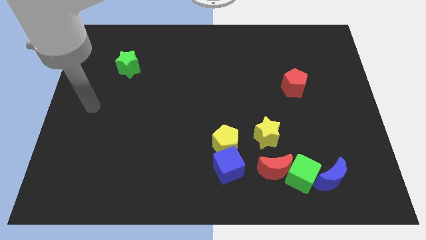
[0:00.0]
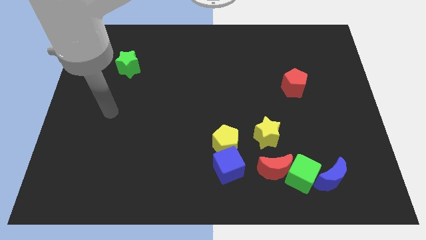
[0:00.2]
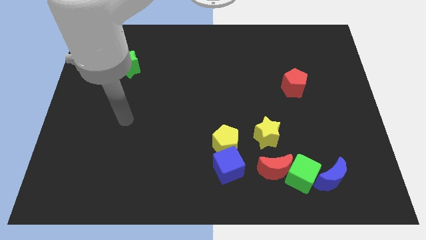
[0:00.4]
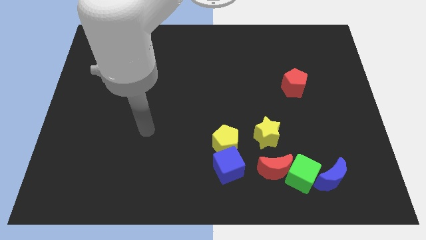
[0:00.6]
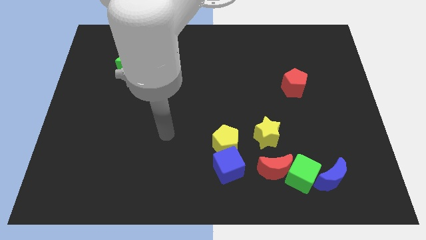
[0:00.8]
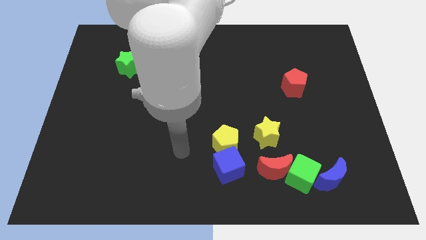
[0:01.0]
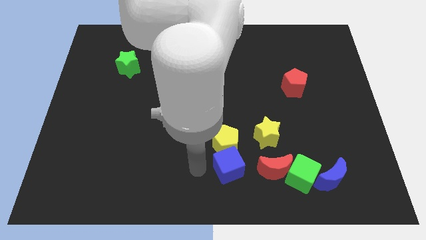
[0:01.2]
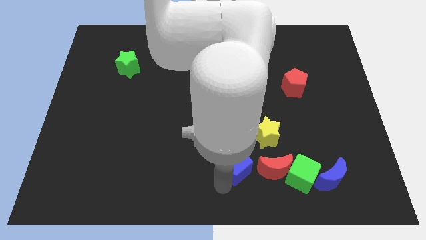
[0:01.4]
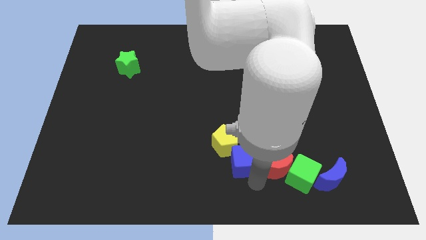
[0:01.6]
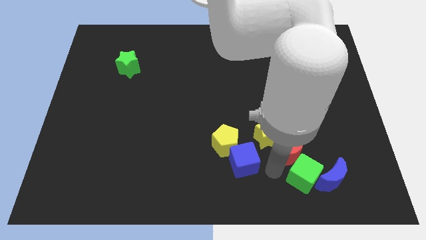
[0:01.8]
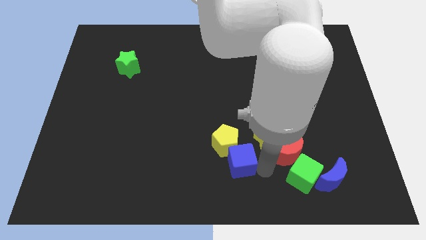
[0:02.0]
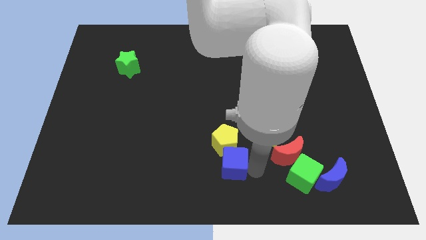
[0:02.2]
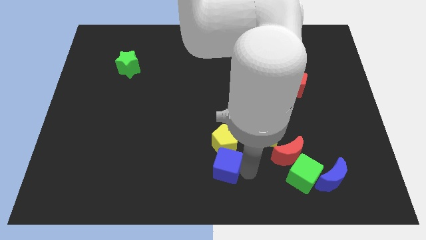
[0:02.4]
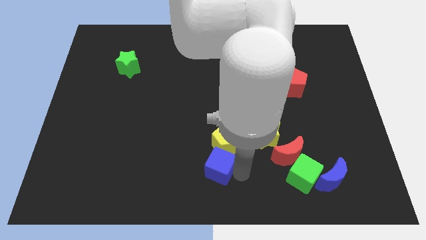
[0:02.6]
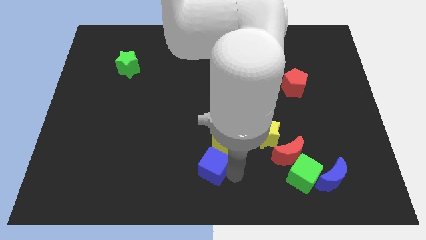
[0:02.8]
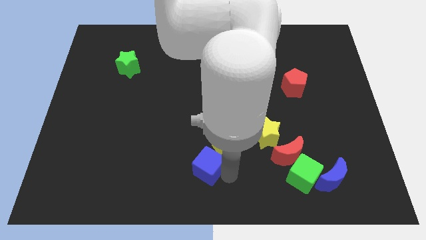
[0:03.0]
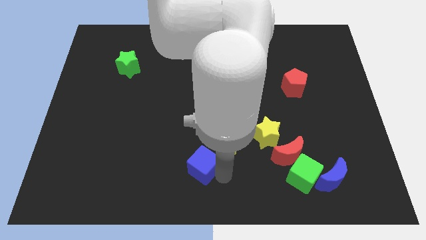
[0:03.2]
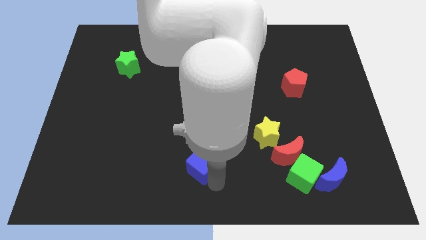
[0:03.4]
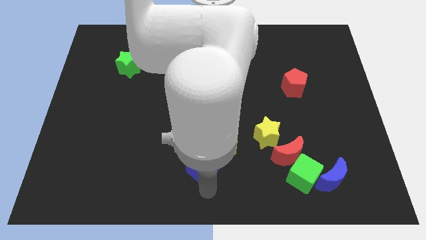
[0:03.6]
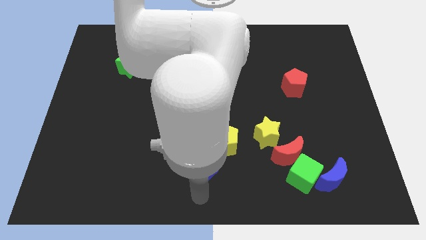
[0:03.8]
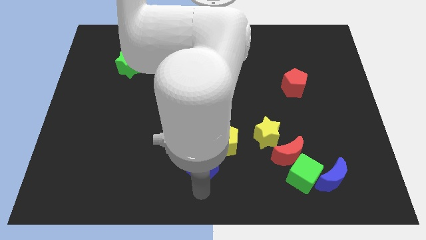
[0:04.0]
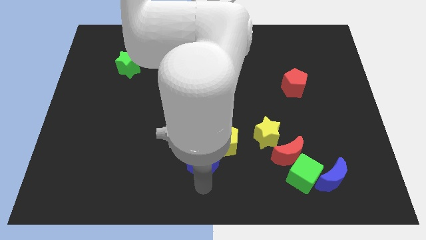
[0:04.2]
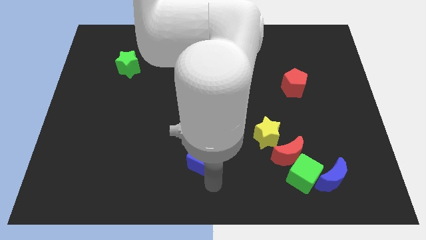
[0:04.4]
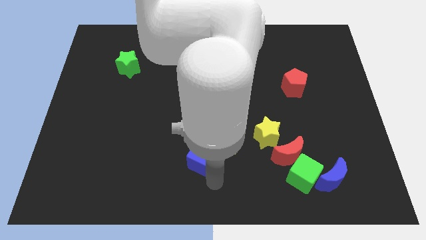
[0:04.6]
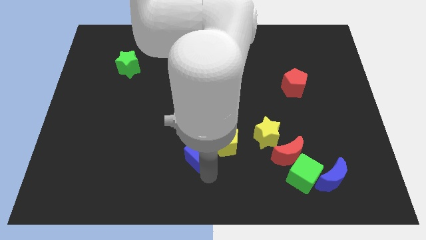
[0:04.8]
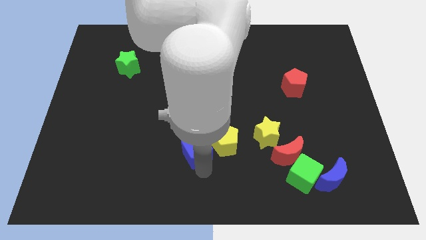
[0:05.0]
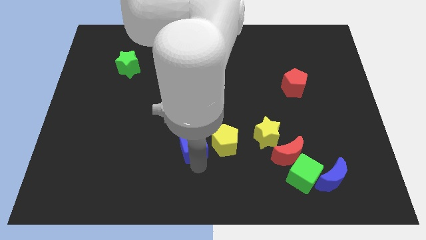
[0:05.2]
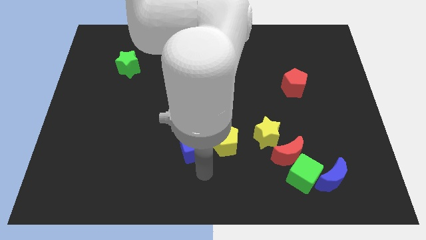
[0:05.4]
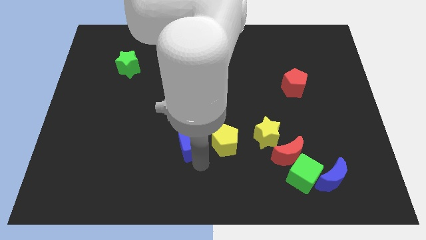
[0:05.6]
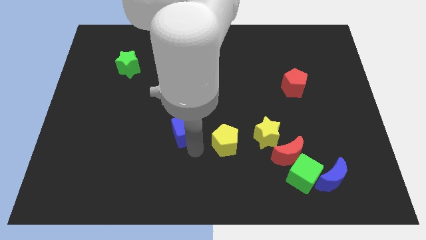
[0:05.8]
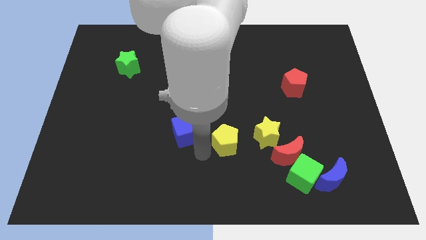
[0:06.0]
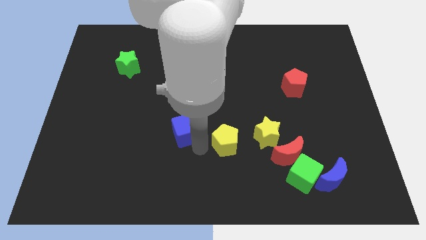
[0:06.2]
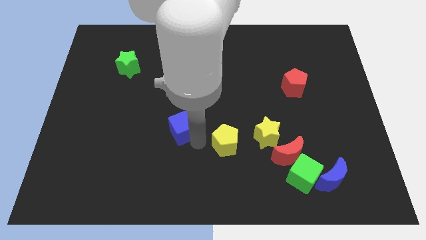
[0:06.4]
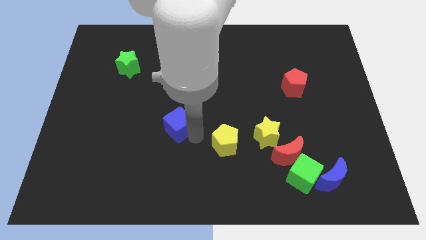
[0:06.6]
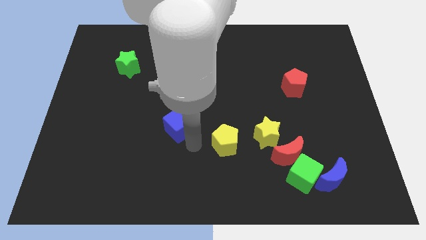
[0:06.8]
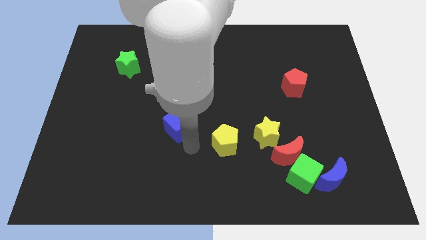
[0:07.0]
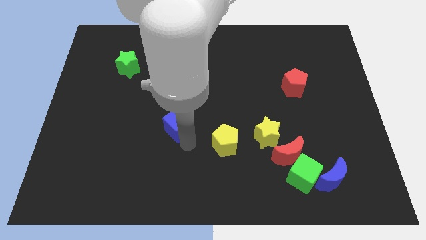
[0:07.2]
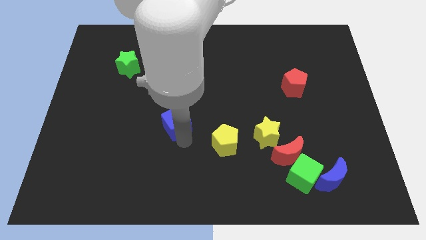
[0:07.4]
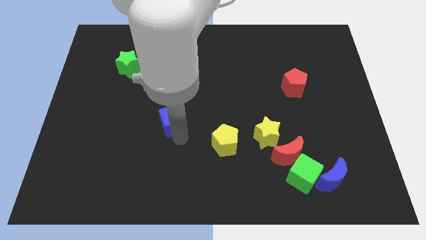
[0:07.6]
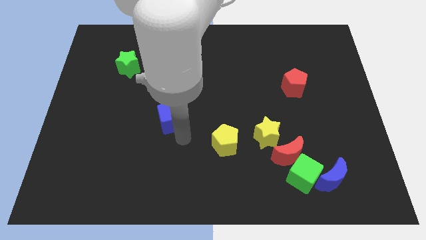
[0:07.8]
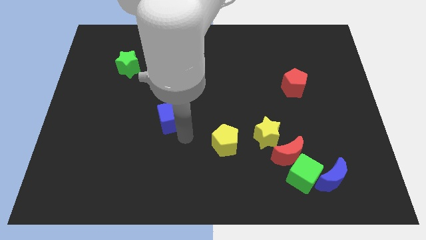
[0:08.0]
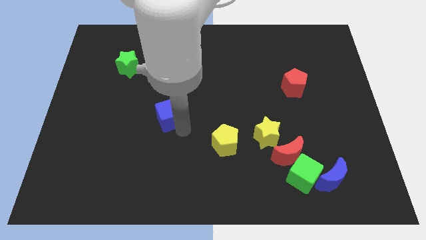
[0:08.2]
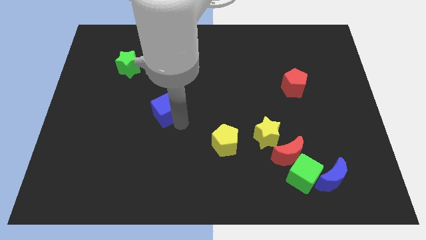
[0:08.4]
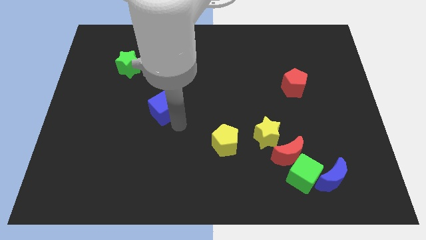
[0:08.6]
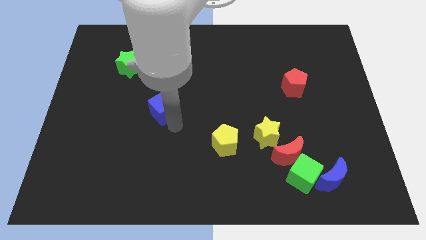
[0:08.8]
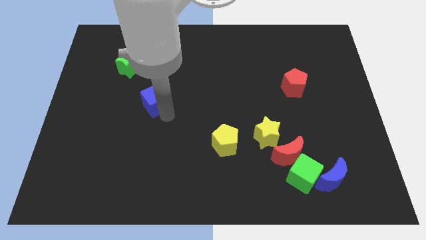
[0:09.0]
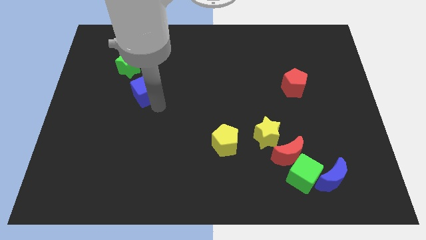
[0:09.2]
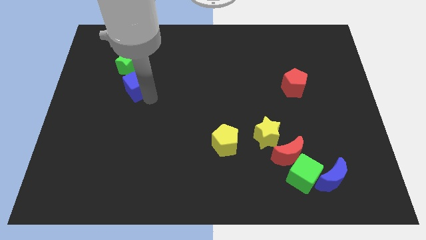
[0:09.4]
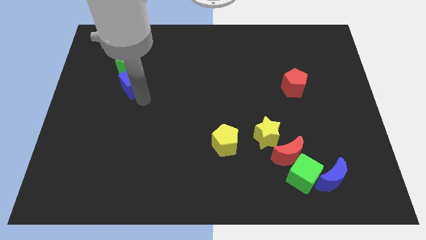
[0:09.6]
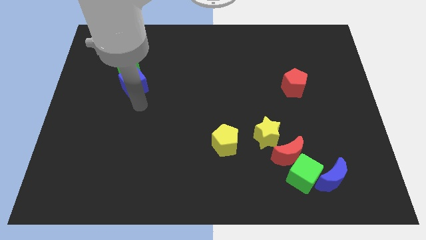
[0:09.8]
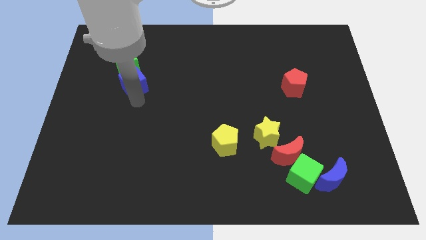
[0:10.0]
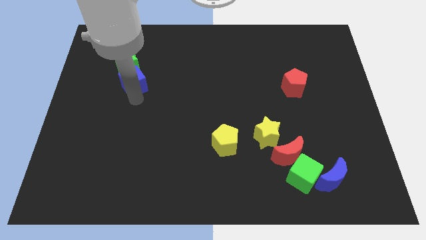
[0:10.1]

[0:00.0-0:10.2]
move the blue cube close to the green star

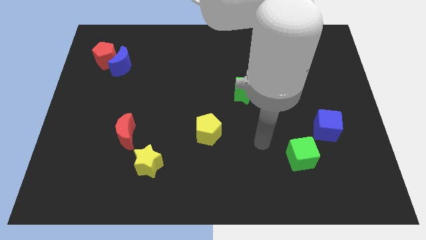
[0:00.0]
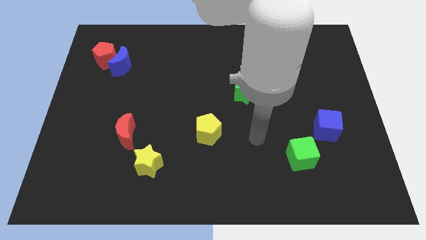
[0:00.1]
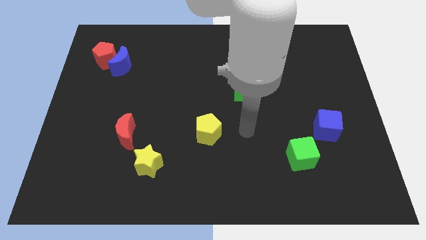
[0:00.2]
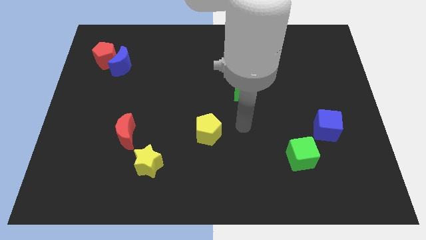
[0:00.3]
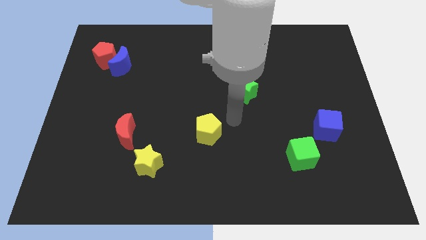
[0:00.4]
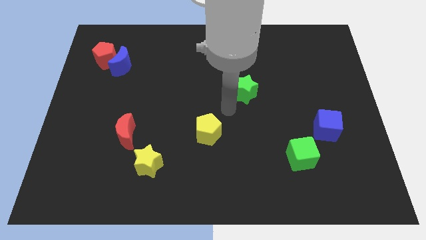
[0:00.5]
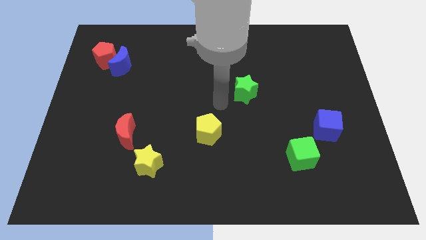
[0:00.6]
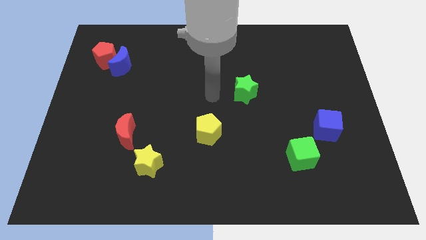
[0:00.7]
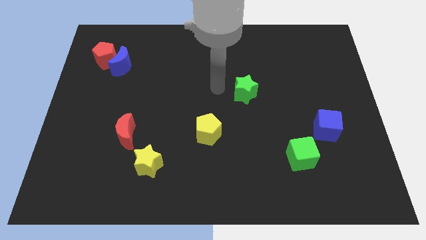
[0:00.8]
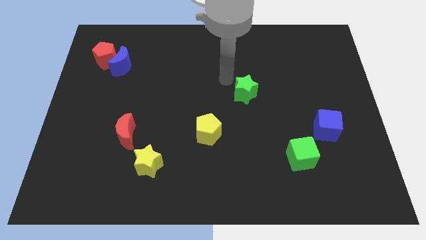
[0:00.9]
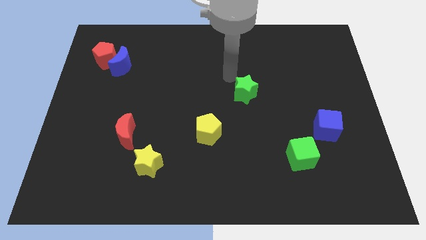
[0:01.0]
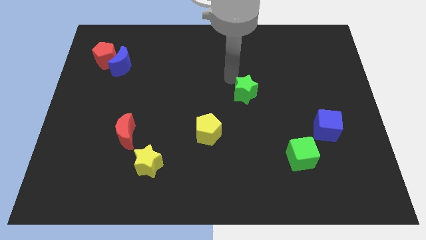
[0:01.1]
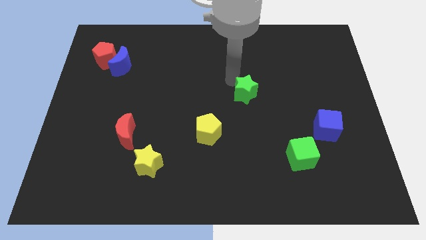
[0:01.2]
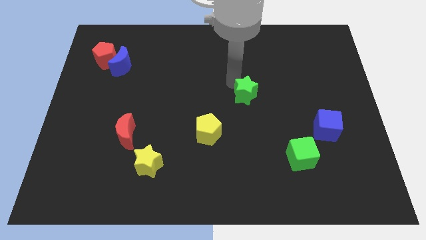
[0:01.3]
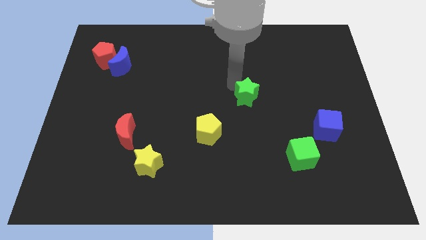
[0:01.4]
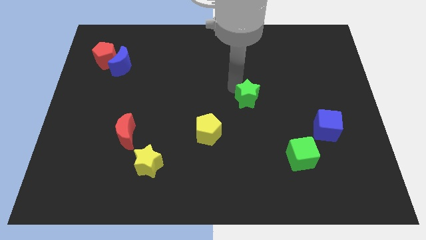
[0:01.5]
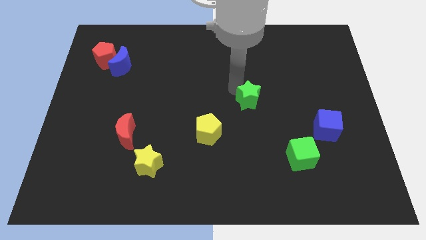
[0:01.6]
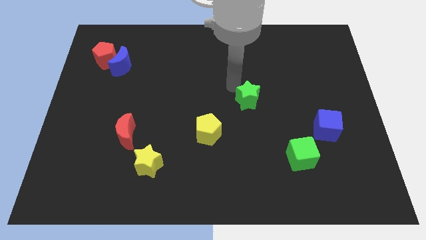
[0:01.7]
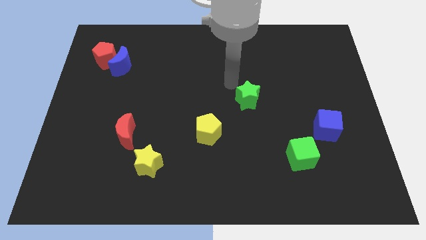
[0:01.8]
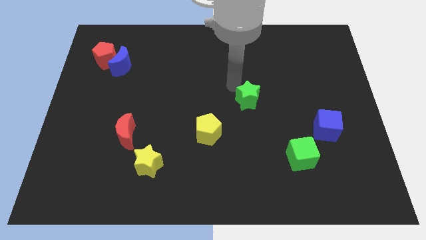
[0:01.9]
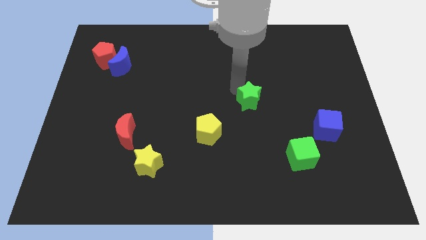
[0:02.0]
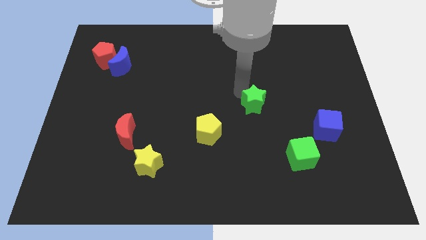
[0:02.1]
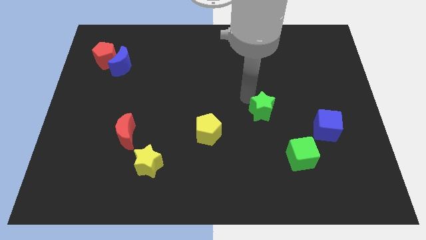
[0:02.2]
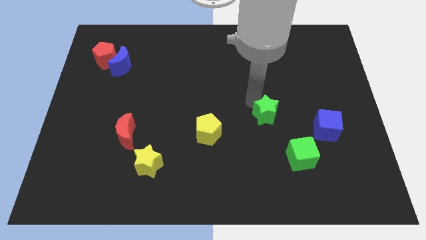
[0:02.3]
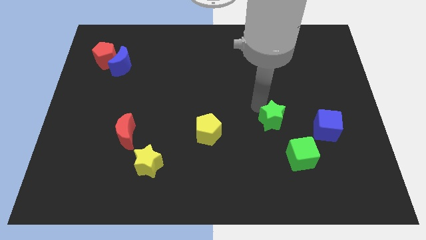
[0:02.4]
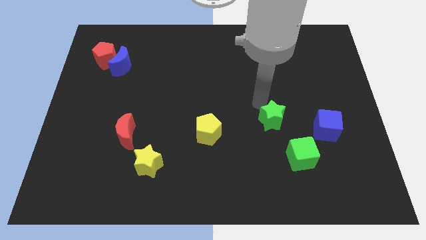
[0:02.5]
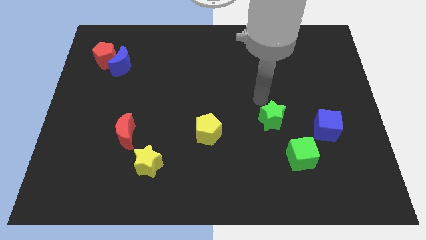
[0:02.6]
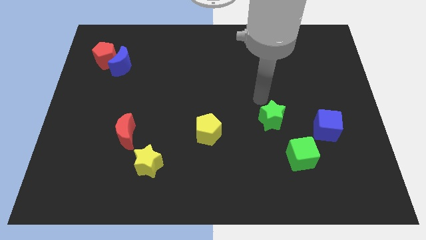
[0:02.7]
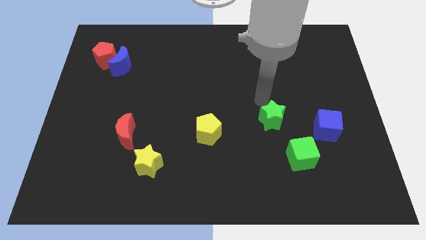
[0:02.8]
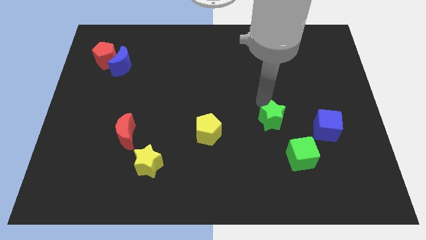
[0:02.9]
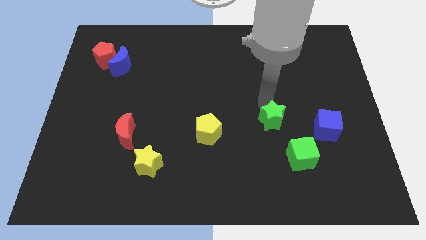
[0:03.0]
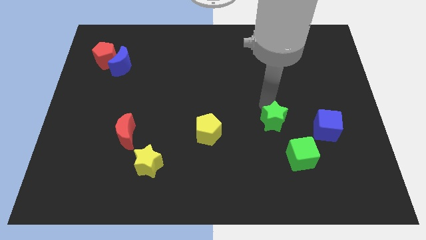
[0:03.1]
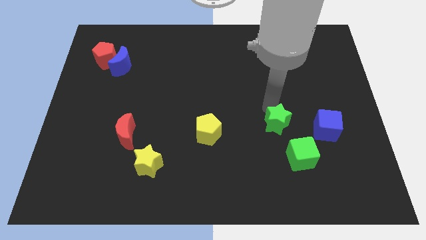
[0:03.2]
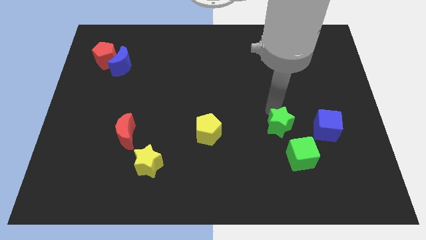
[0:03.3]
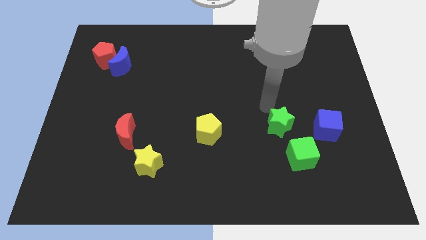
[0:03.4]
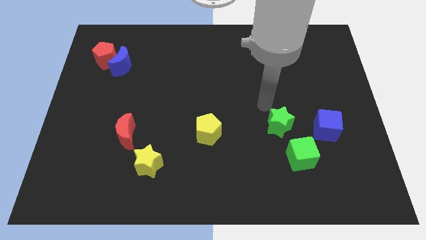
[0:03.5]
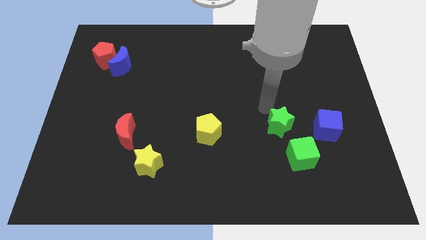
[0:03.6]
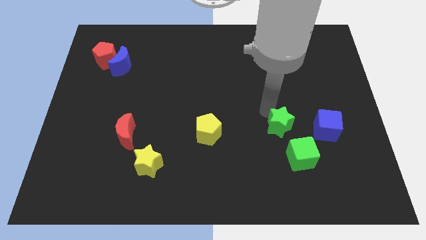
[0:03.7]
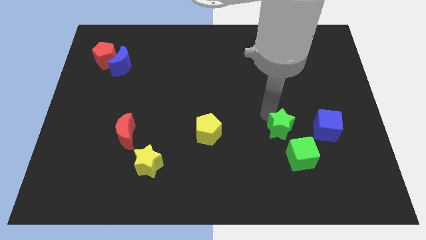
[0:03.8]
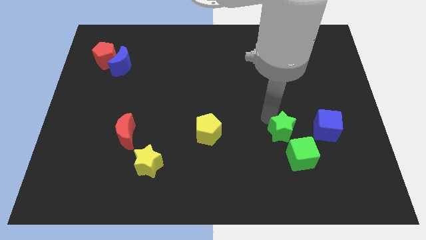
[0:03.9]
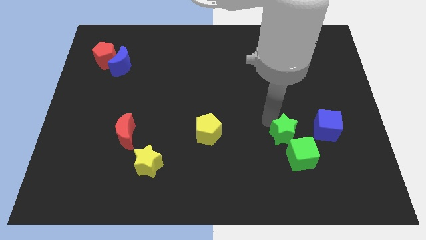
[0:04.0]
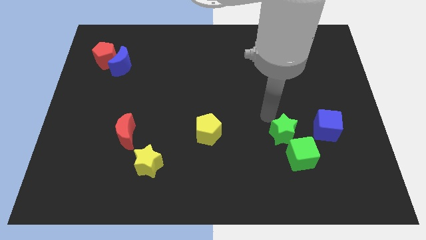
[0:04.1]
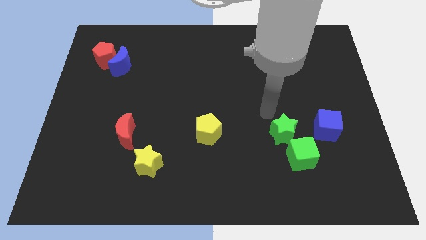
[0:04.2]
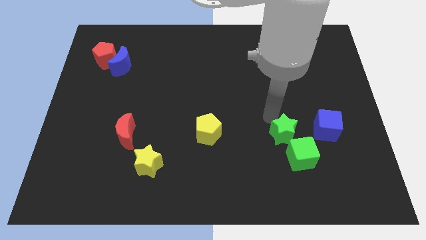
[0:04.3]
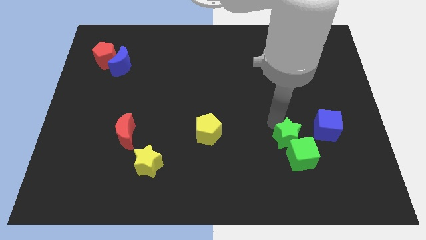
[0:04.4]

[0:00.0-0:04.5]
move the green star towards the green cube
